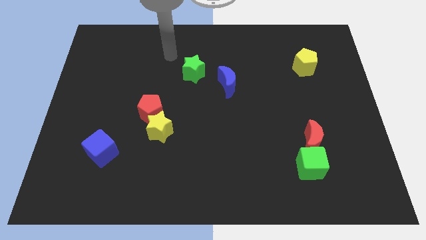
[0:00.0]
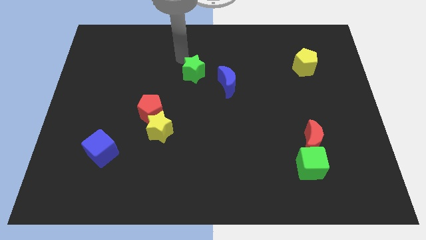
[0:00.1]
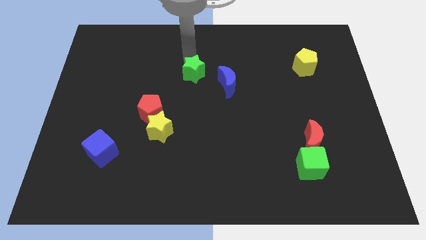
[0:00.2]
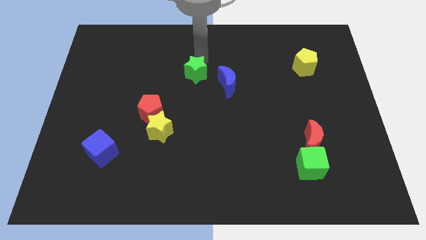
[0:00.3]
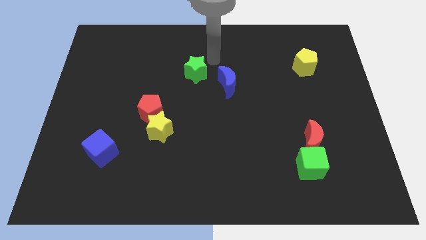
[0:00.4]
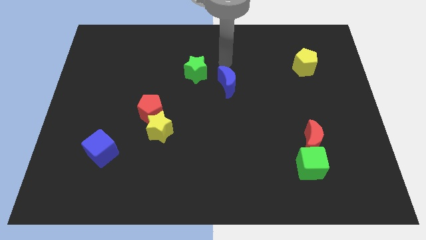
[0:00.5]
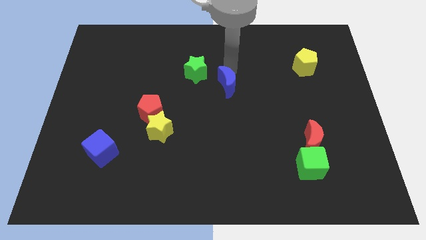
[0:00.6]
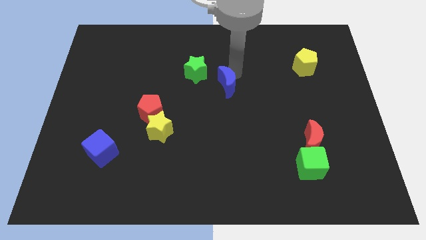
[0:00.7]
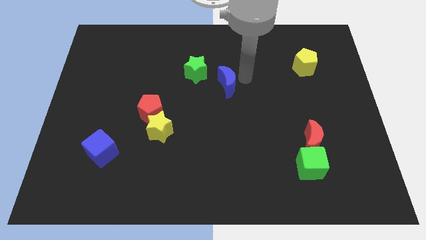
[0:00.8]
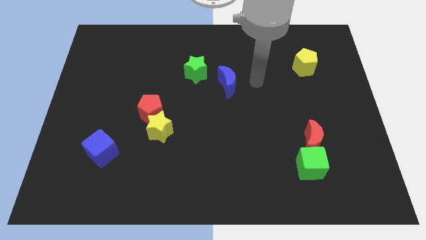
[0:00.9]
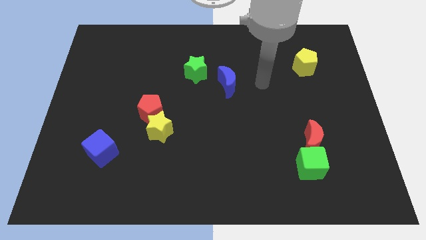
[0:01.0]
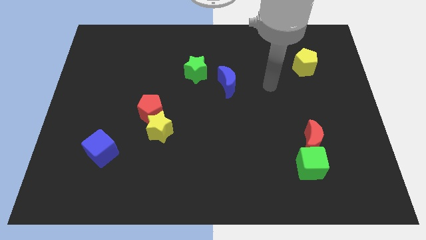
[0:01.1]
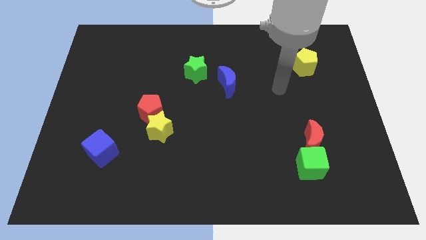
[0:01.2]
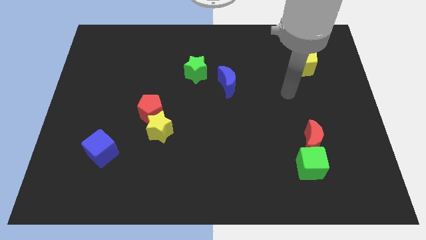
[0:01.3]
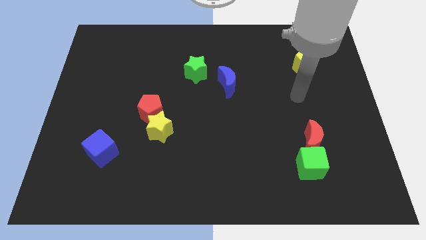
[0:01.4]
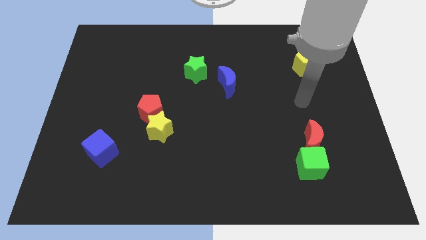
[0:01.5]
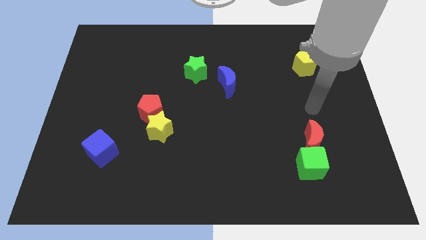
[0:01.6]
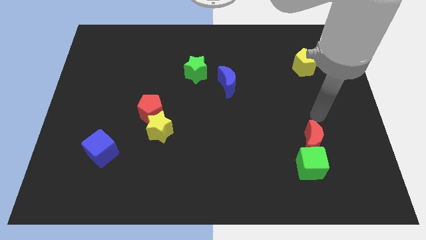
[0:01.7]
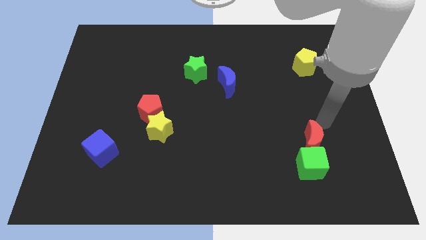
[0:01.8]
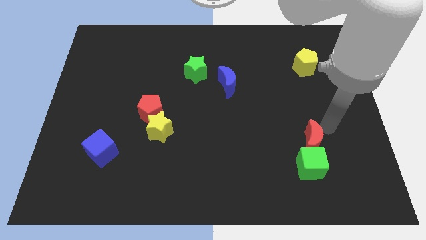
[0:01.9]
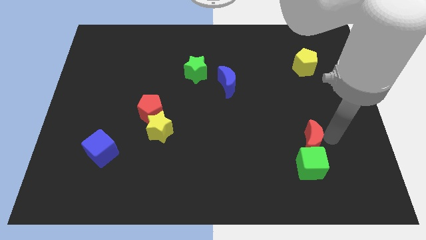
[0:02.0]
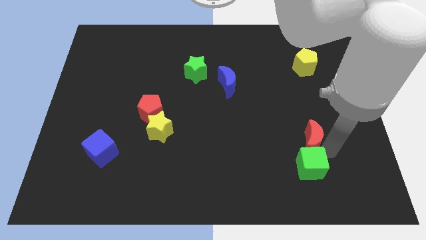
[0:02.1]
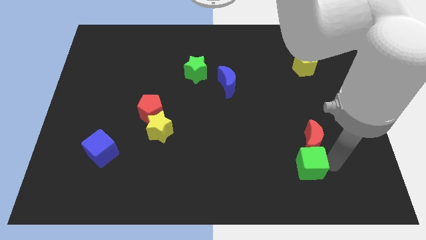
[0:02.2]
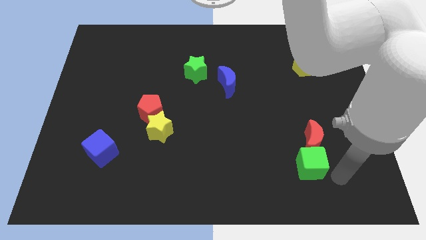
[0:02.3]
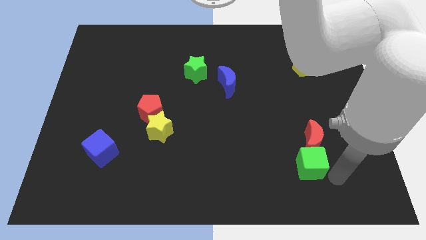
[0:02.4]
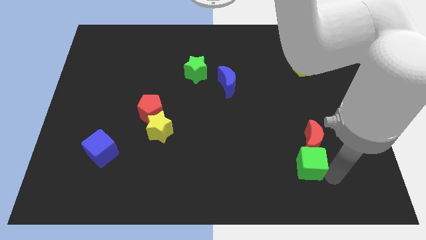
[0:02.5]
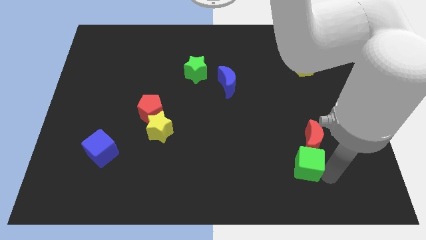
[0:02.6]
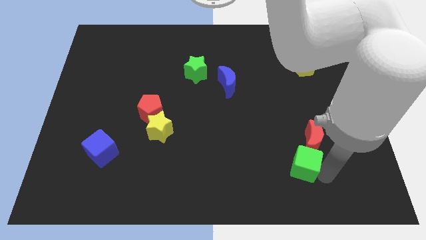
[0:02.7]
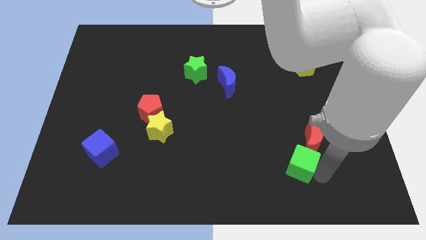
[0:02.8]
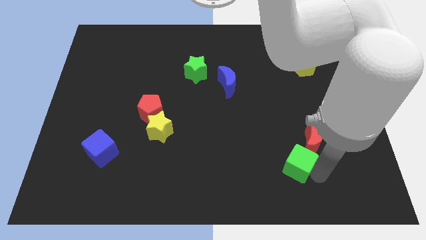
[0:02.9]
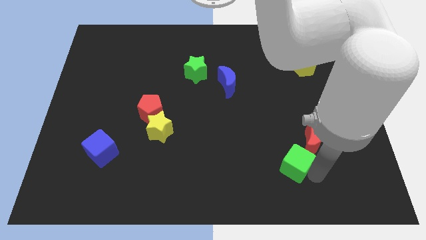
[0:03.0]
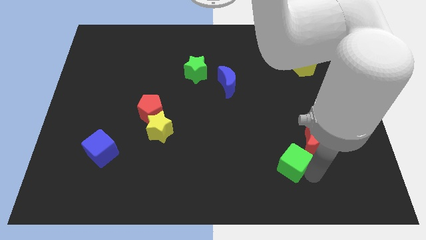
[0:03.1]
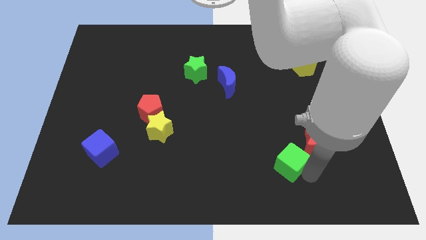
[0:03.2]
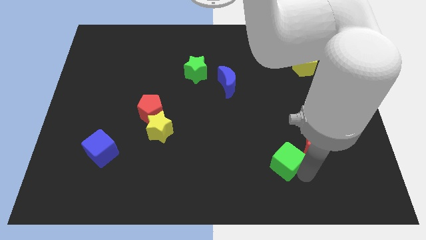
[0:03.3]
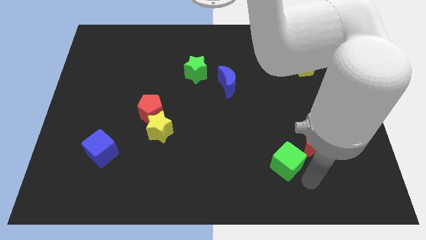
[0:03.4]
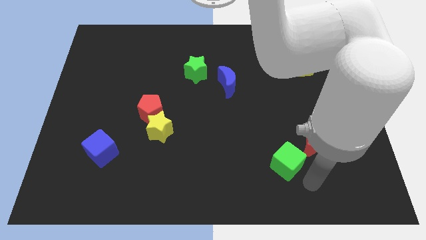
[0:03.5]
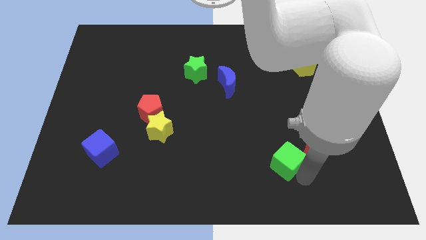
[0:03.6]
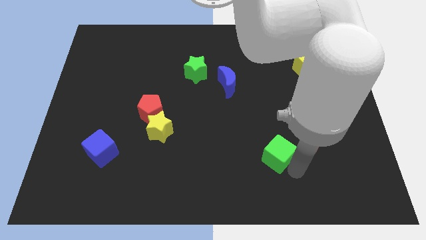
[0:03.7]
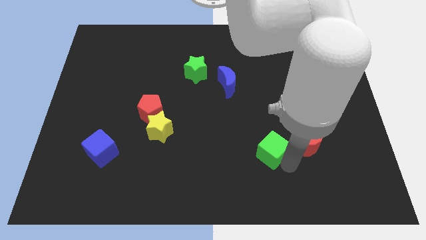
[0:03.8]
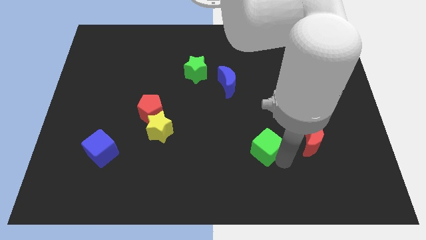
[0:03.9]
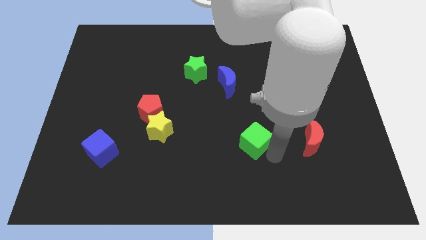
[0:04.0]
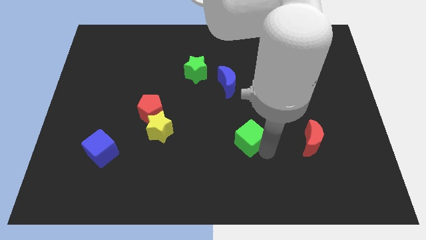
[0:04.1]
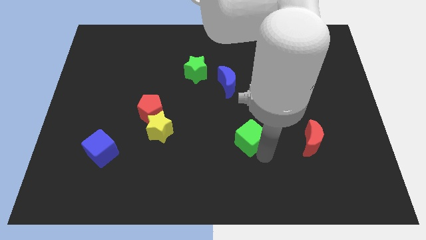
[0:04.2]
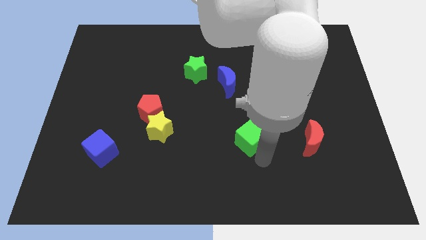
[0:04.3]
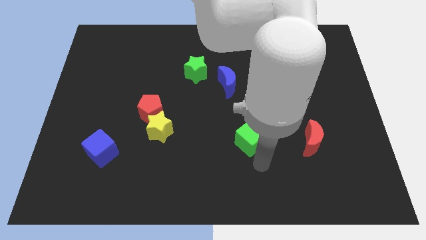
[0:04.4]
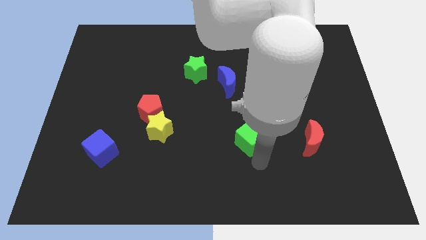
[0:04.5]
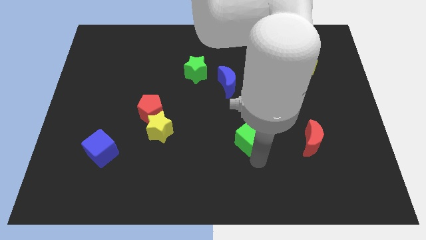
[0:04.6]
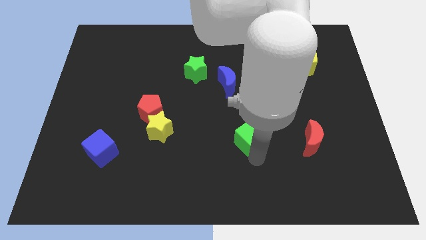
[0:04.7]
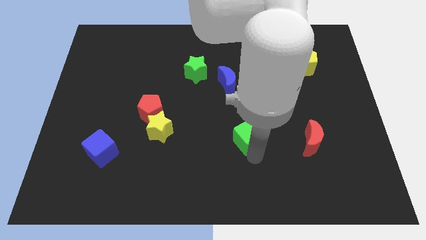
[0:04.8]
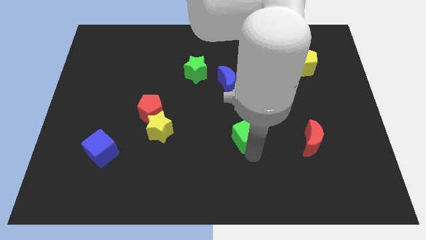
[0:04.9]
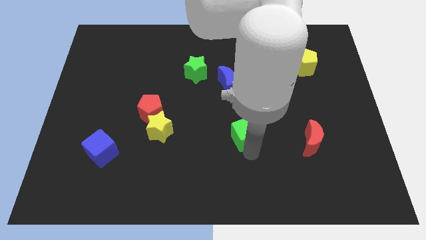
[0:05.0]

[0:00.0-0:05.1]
put the green cube to the middle
